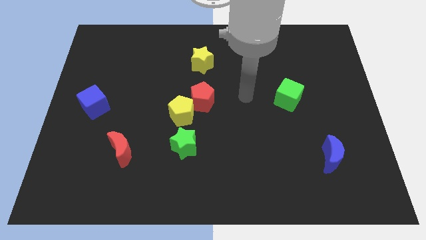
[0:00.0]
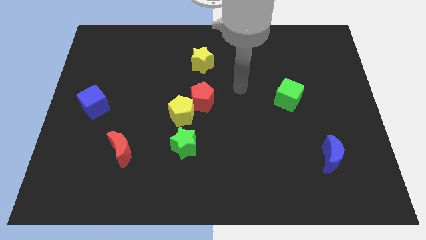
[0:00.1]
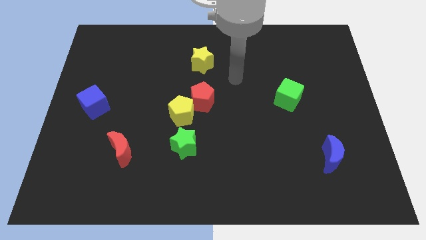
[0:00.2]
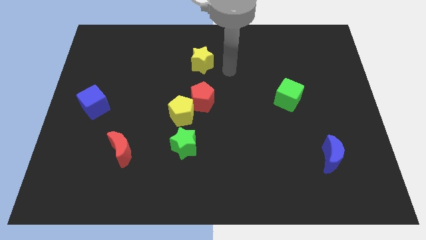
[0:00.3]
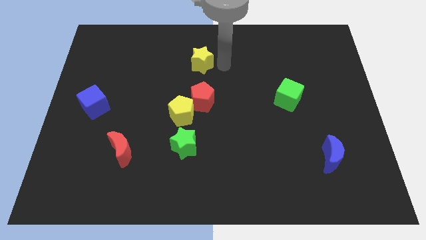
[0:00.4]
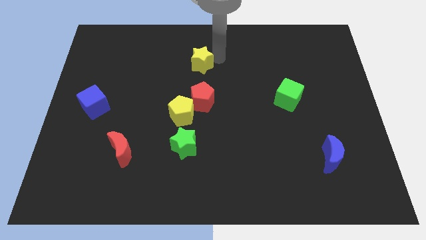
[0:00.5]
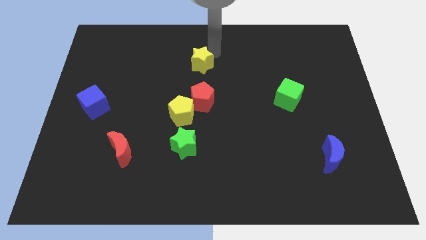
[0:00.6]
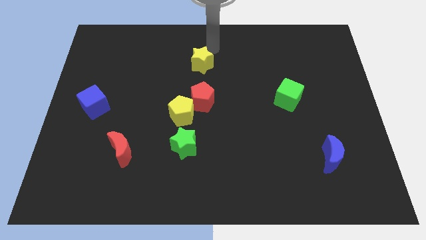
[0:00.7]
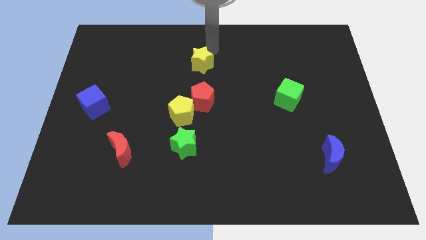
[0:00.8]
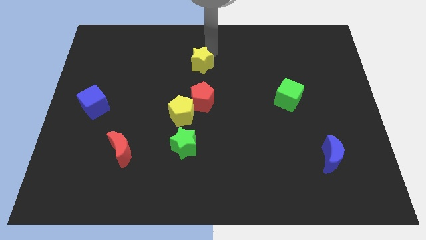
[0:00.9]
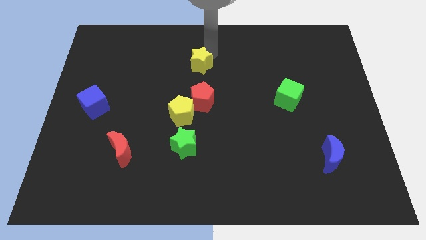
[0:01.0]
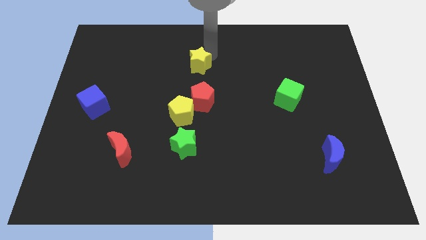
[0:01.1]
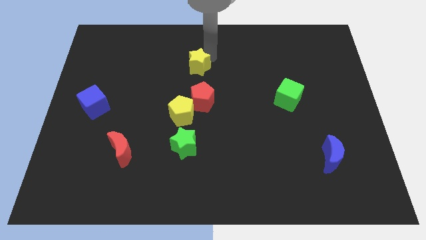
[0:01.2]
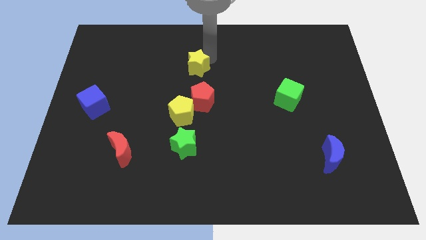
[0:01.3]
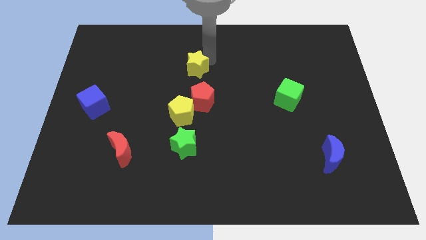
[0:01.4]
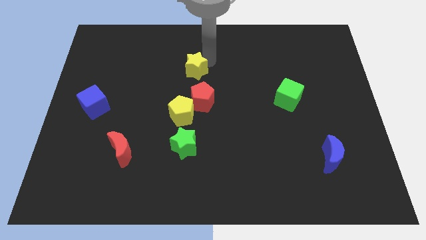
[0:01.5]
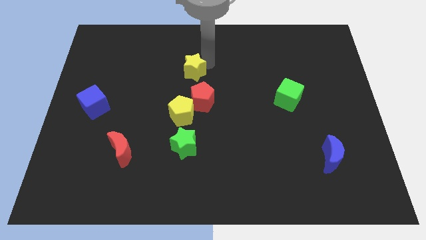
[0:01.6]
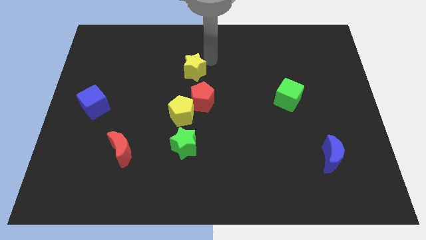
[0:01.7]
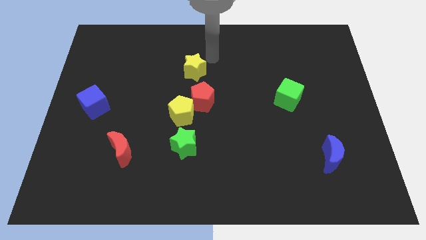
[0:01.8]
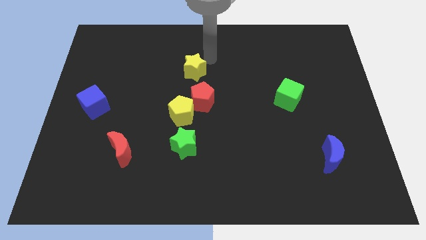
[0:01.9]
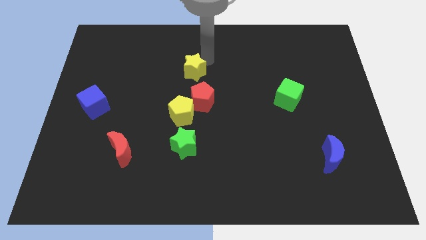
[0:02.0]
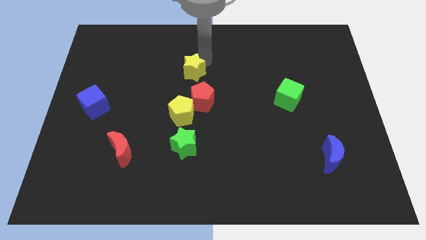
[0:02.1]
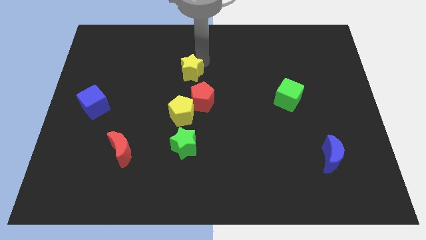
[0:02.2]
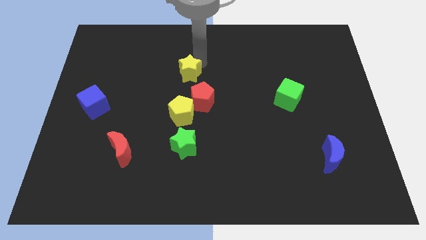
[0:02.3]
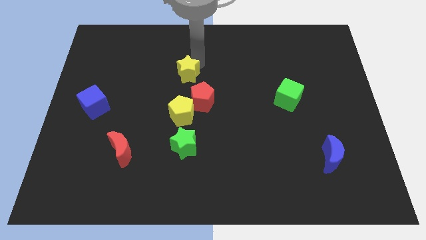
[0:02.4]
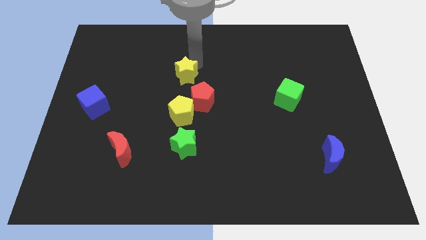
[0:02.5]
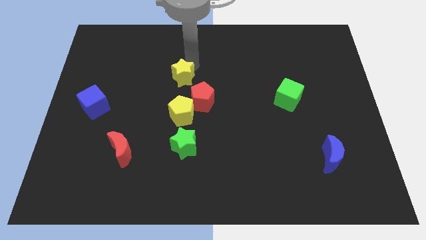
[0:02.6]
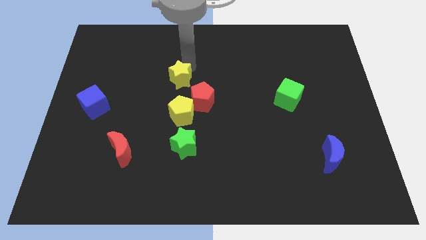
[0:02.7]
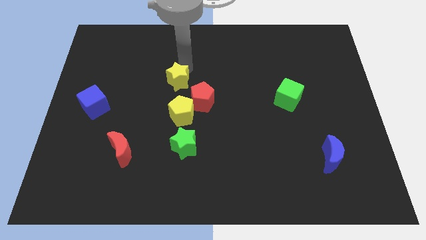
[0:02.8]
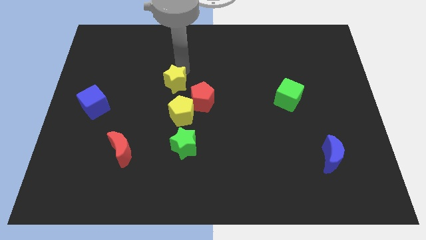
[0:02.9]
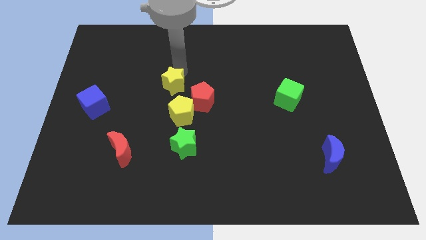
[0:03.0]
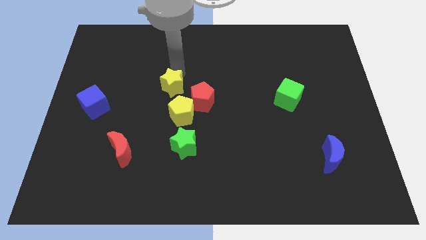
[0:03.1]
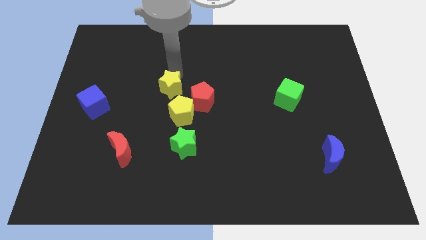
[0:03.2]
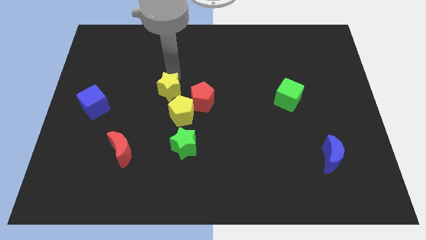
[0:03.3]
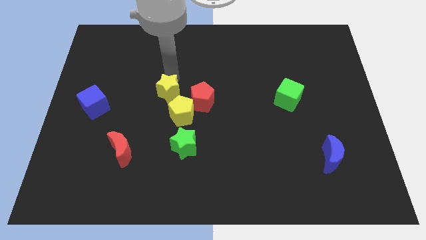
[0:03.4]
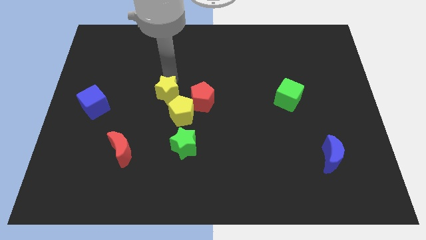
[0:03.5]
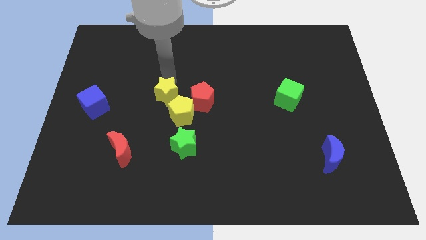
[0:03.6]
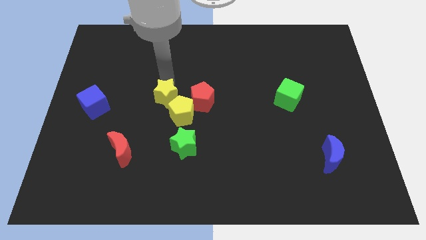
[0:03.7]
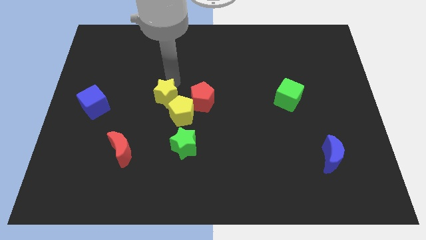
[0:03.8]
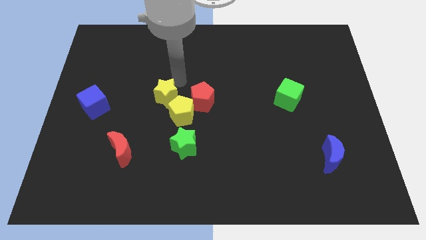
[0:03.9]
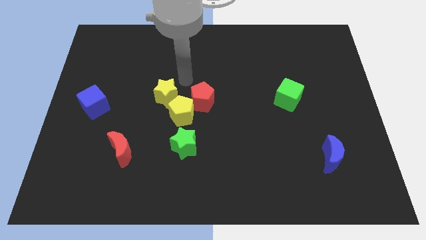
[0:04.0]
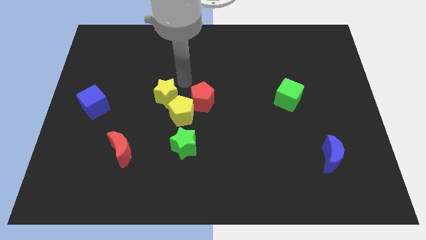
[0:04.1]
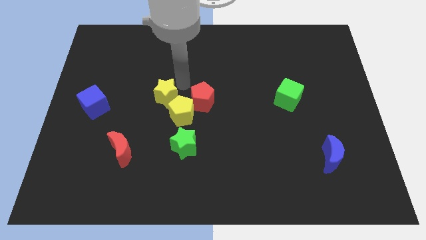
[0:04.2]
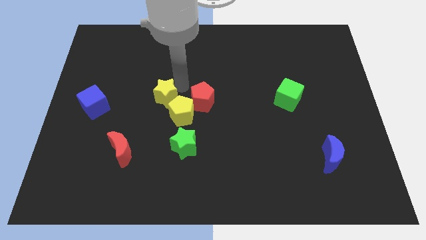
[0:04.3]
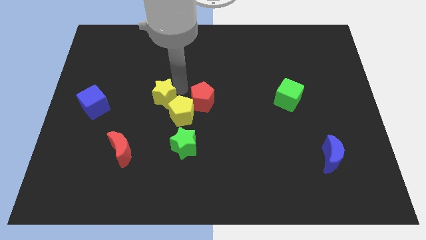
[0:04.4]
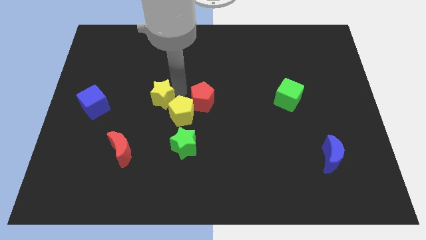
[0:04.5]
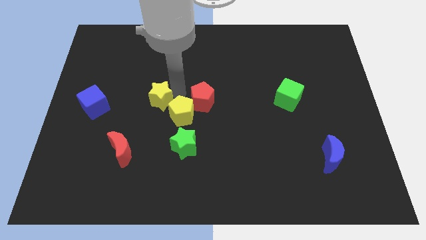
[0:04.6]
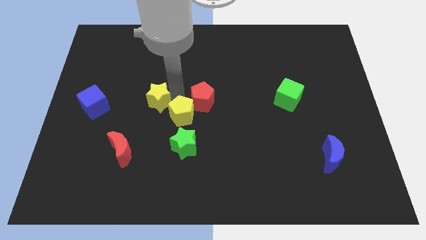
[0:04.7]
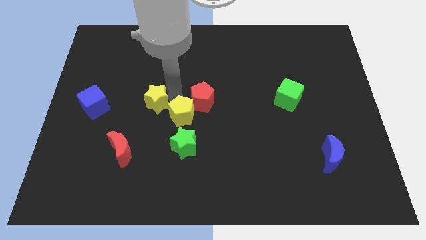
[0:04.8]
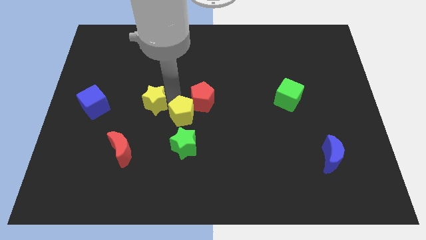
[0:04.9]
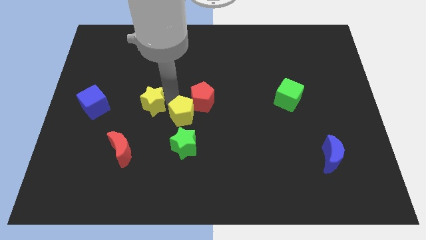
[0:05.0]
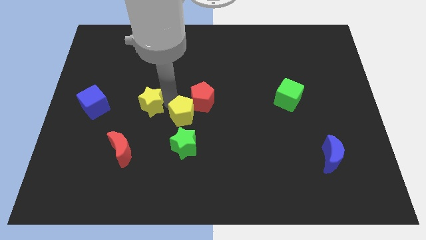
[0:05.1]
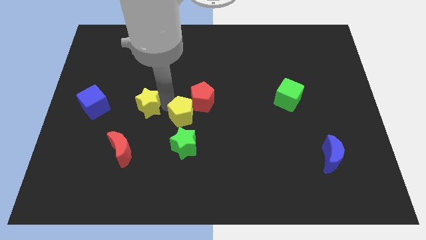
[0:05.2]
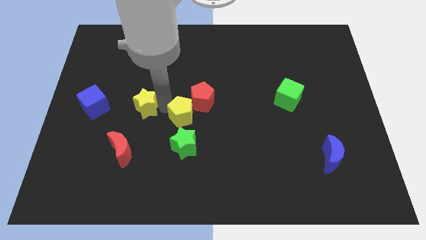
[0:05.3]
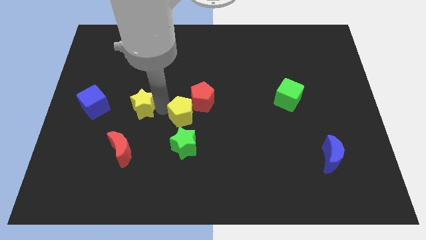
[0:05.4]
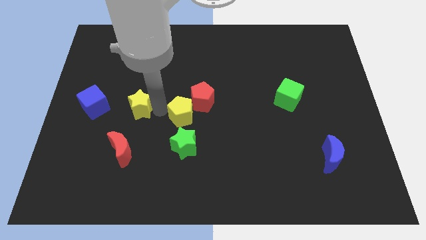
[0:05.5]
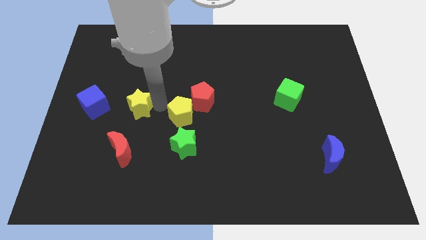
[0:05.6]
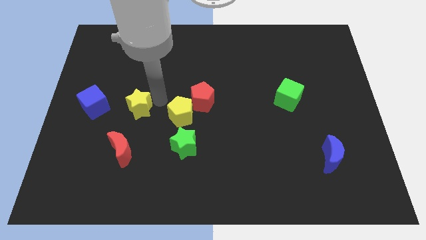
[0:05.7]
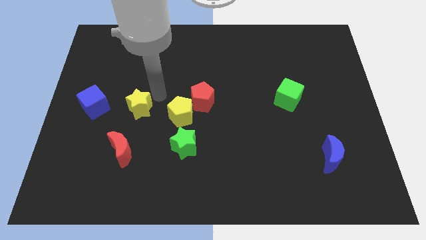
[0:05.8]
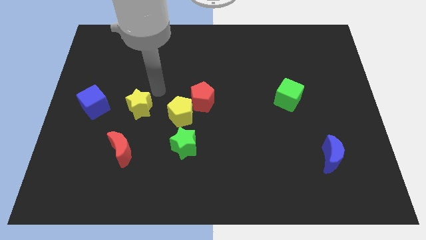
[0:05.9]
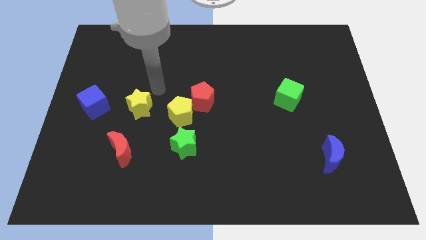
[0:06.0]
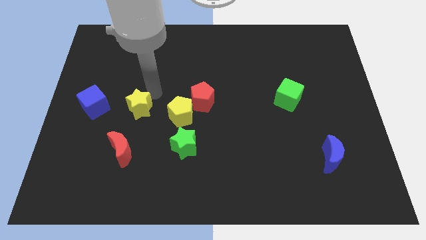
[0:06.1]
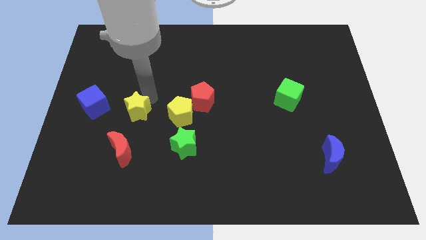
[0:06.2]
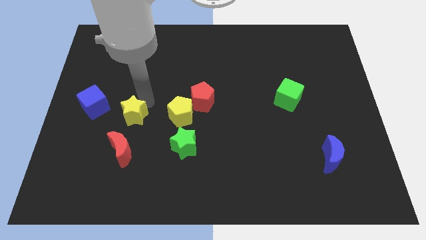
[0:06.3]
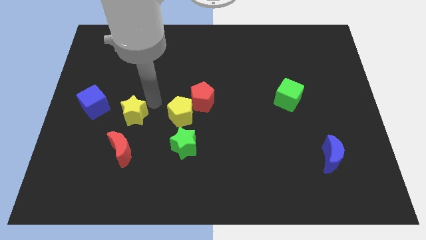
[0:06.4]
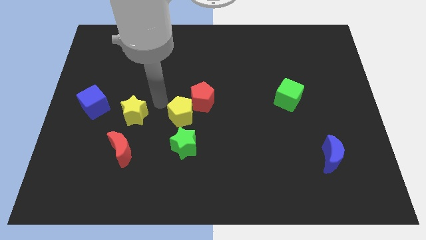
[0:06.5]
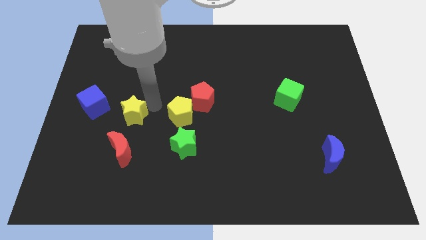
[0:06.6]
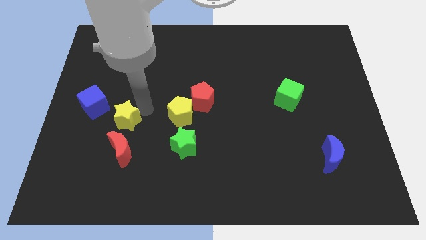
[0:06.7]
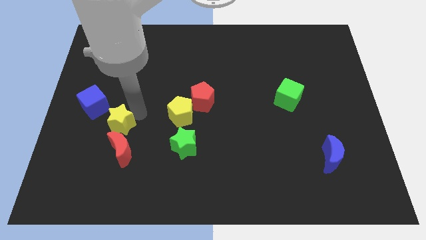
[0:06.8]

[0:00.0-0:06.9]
slide the yellow star to the top left side of the red moon
